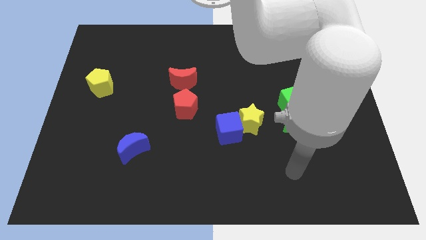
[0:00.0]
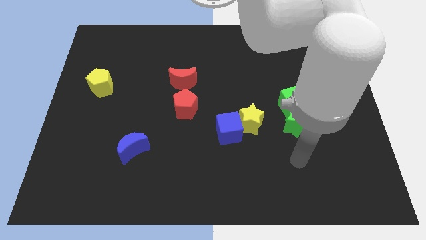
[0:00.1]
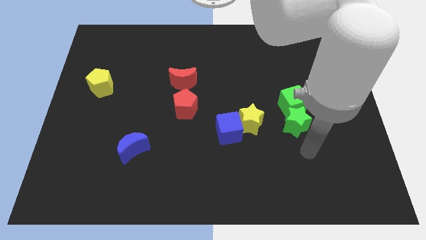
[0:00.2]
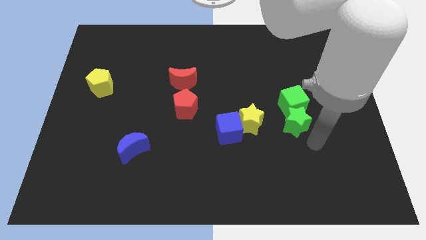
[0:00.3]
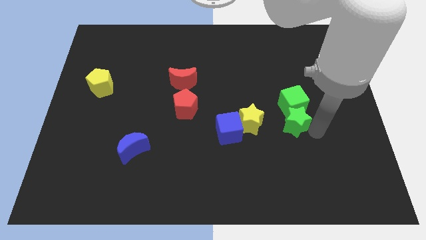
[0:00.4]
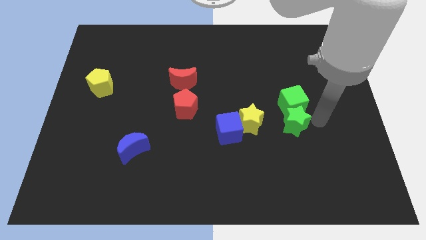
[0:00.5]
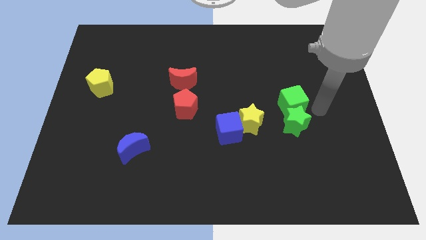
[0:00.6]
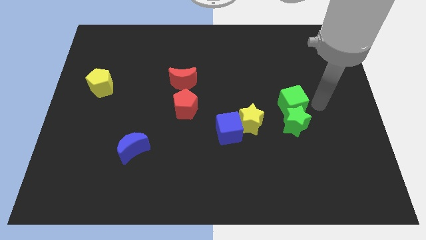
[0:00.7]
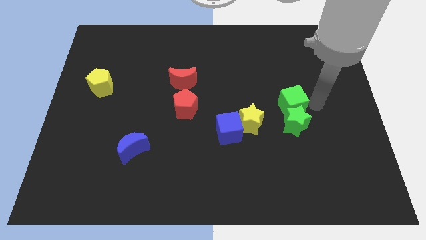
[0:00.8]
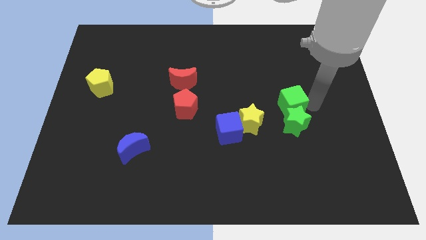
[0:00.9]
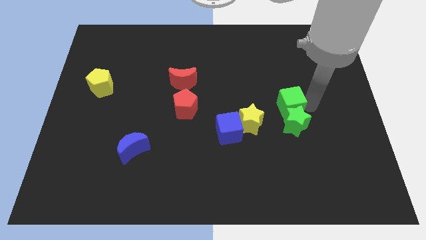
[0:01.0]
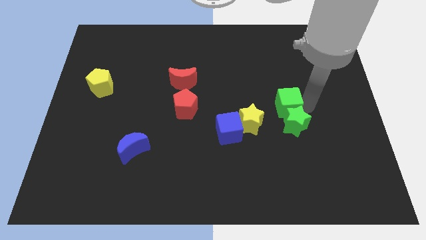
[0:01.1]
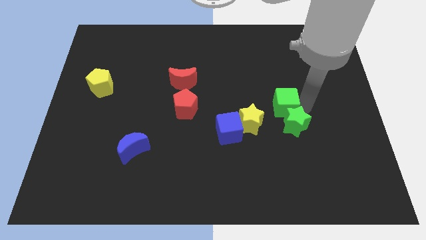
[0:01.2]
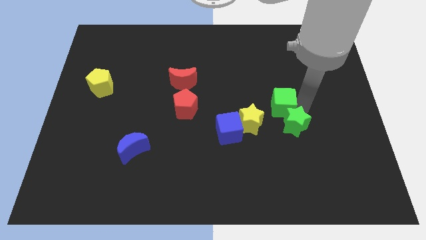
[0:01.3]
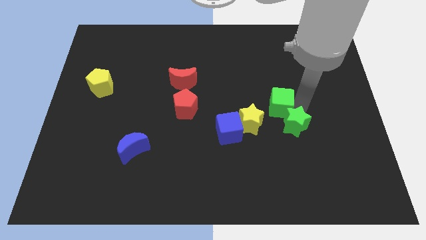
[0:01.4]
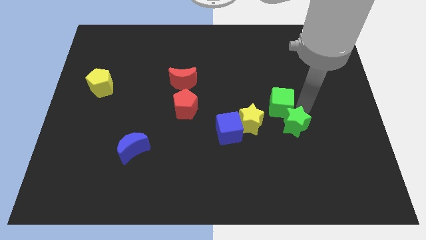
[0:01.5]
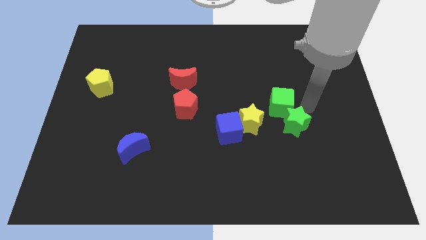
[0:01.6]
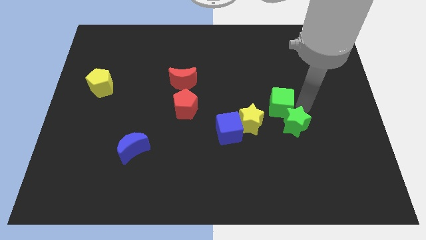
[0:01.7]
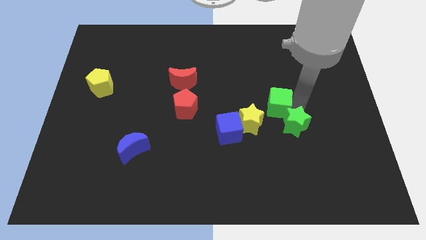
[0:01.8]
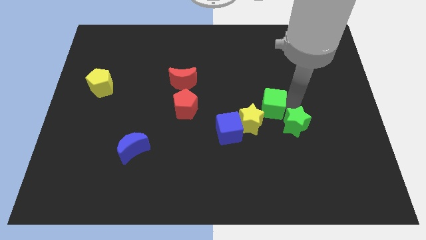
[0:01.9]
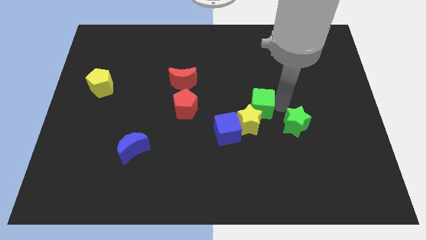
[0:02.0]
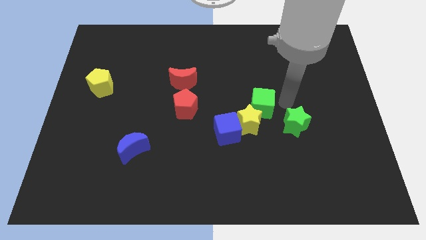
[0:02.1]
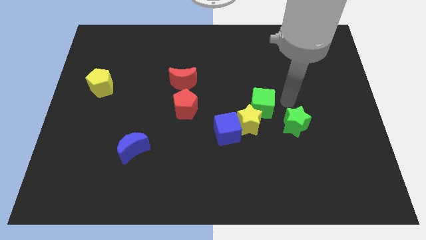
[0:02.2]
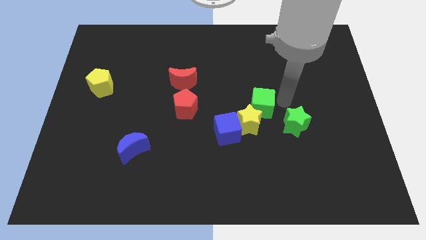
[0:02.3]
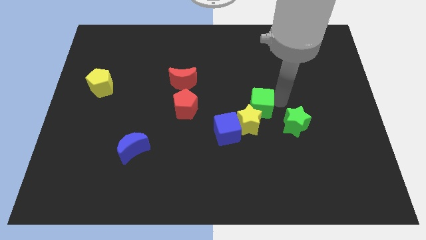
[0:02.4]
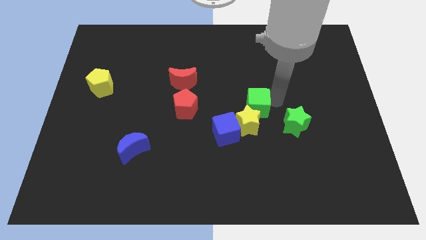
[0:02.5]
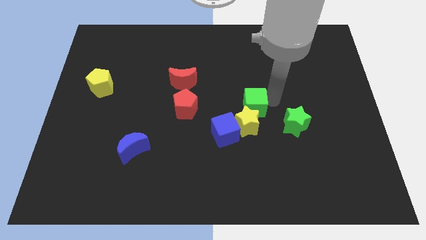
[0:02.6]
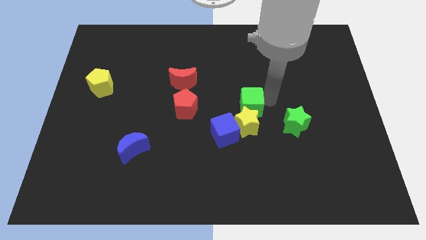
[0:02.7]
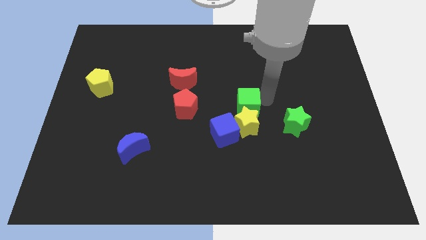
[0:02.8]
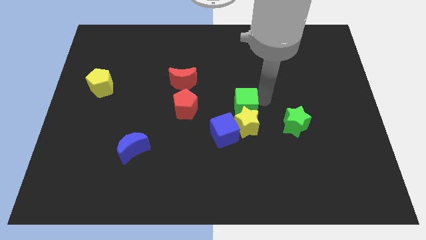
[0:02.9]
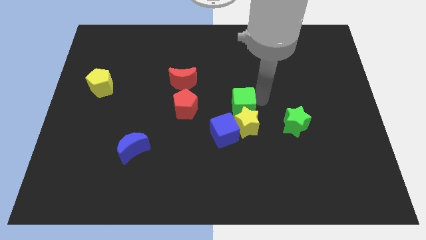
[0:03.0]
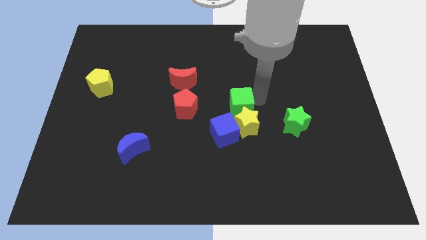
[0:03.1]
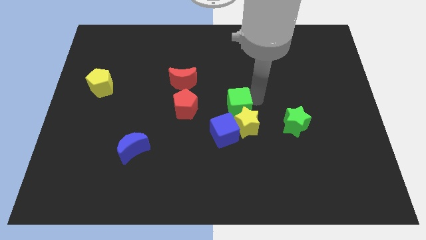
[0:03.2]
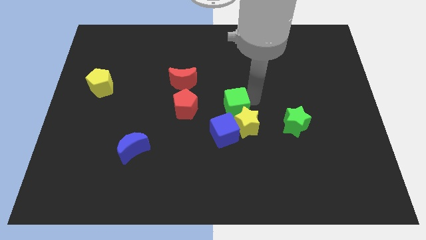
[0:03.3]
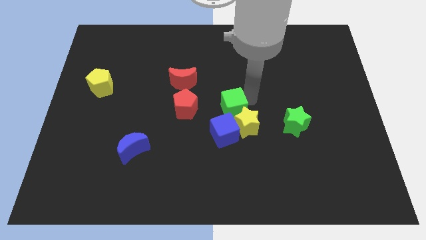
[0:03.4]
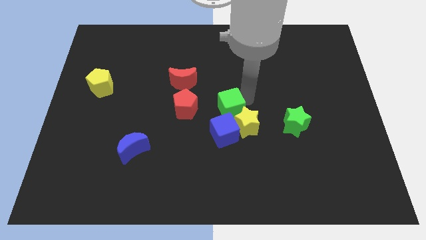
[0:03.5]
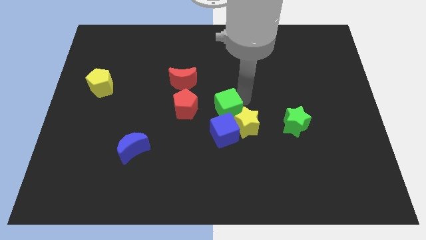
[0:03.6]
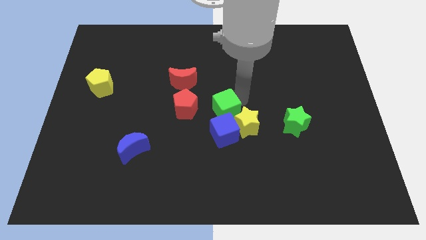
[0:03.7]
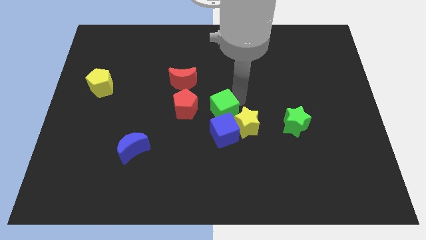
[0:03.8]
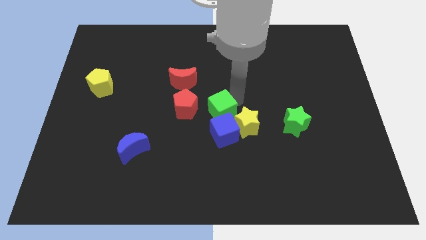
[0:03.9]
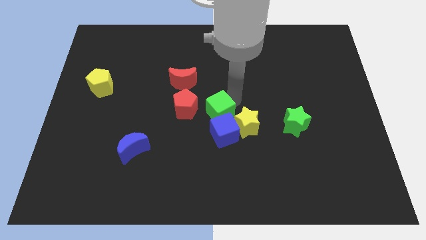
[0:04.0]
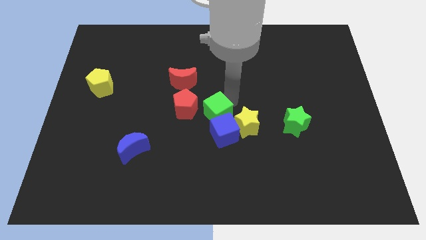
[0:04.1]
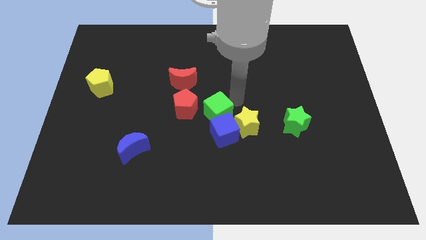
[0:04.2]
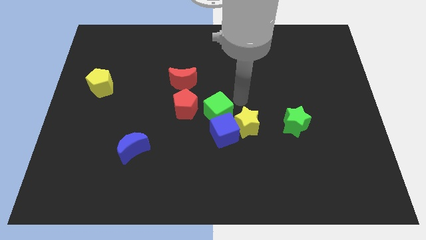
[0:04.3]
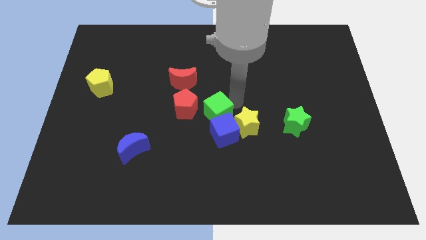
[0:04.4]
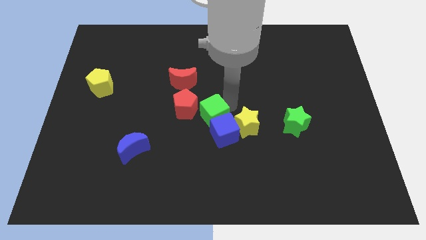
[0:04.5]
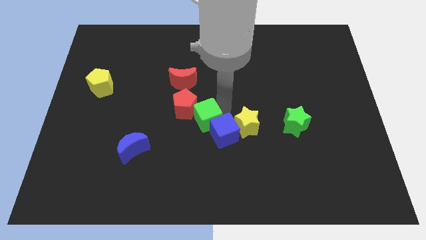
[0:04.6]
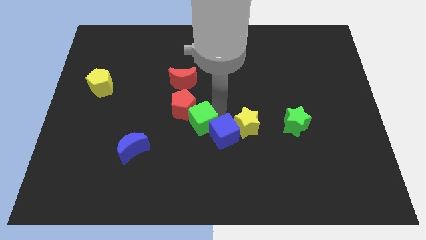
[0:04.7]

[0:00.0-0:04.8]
push the green cube to the left

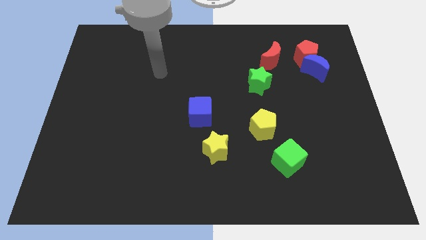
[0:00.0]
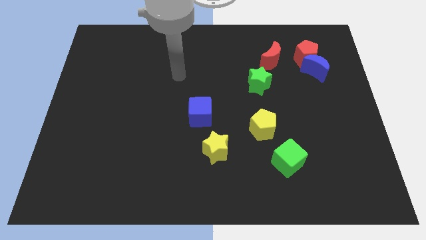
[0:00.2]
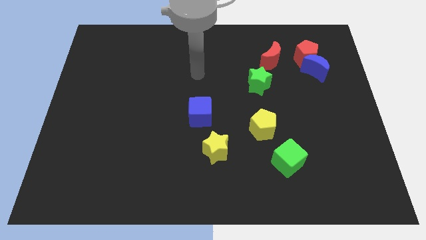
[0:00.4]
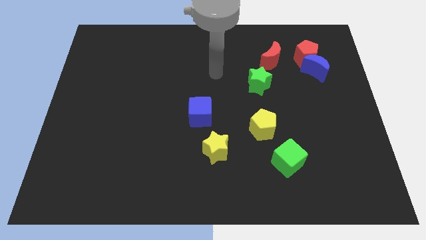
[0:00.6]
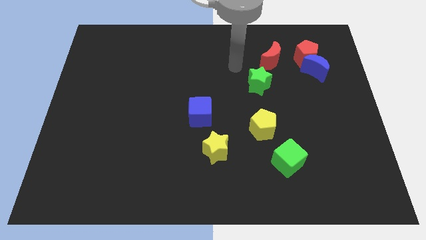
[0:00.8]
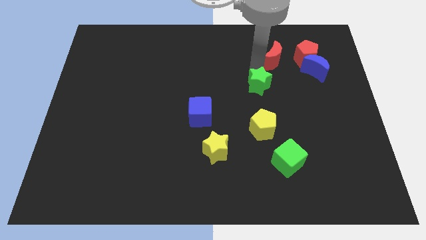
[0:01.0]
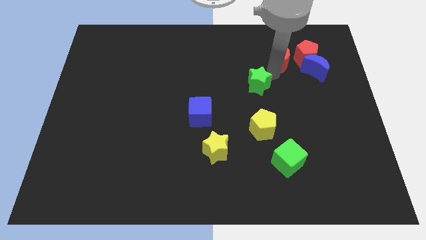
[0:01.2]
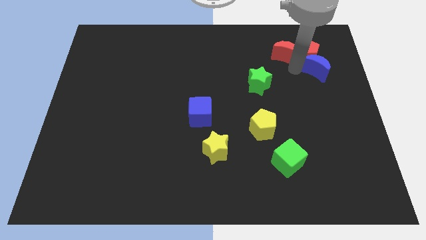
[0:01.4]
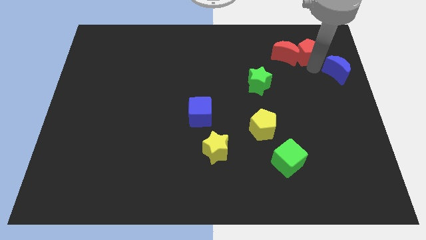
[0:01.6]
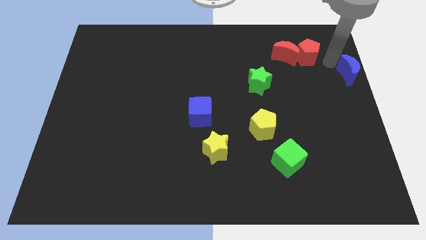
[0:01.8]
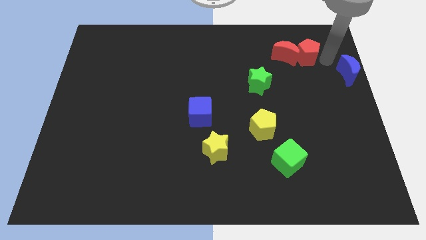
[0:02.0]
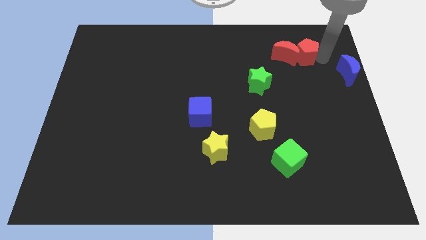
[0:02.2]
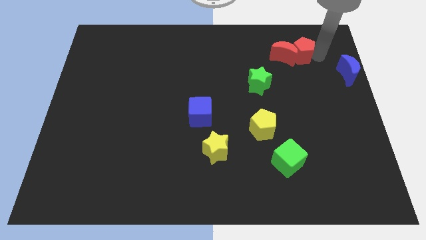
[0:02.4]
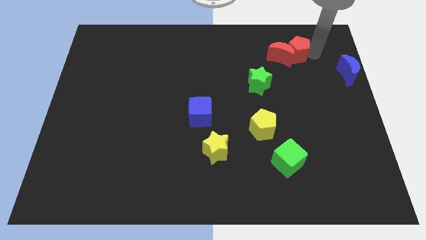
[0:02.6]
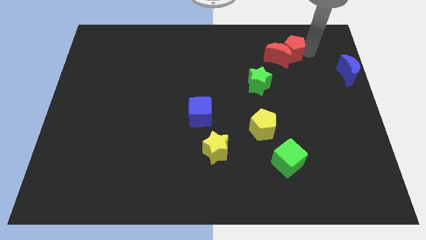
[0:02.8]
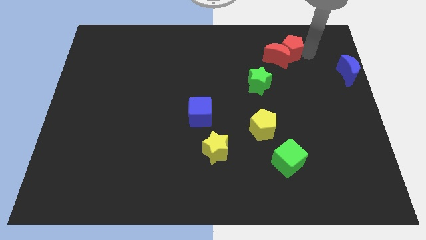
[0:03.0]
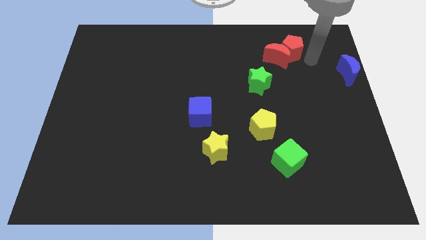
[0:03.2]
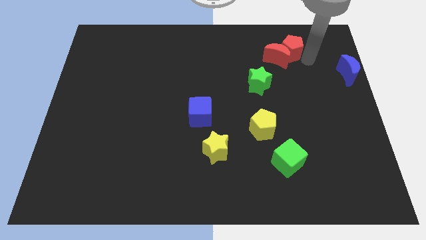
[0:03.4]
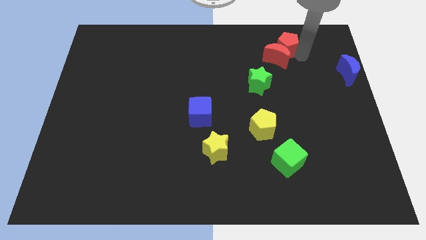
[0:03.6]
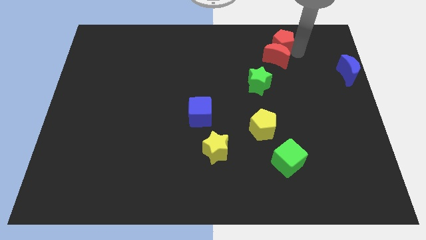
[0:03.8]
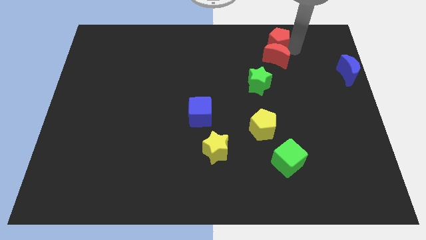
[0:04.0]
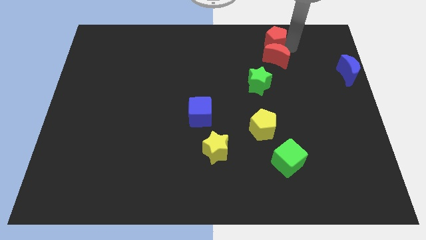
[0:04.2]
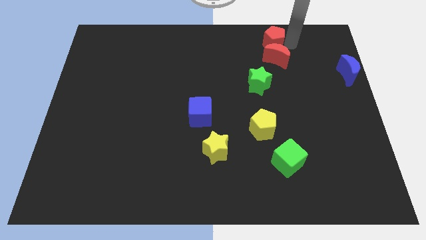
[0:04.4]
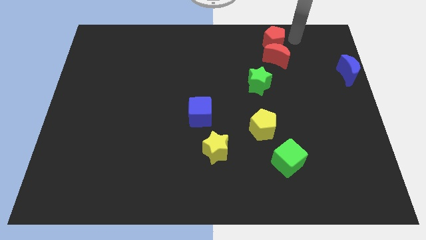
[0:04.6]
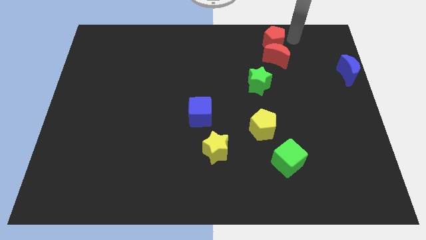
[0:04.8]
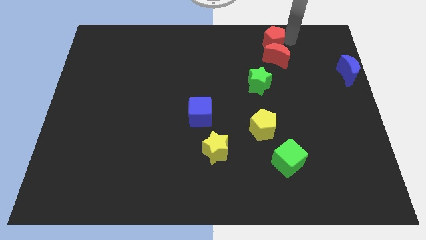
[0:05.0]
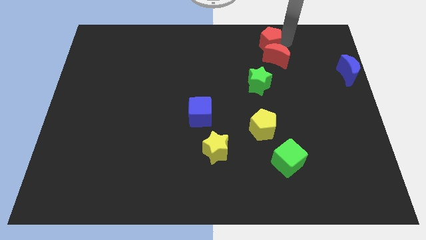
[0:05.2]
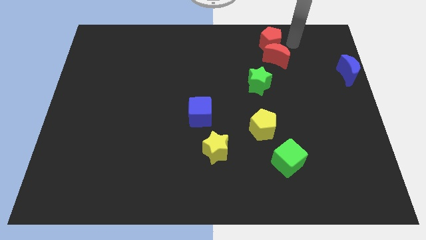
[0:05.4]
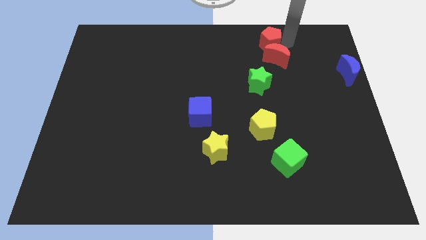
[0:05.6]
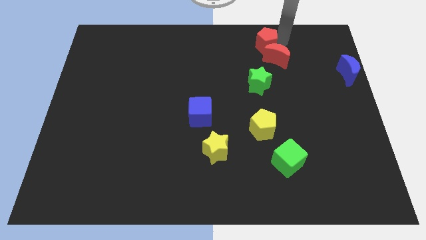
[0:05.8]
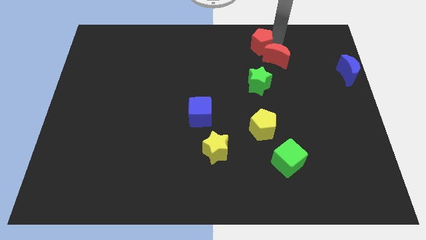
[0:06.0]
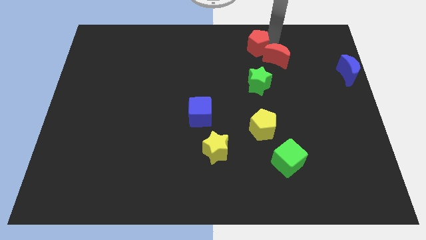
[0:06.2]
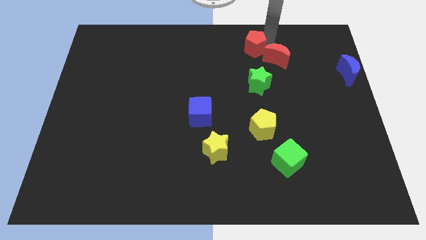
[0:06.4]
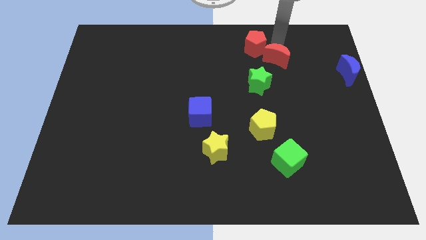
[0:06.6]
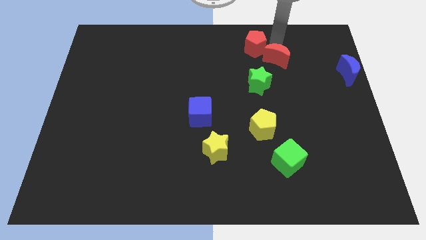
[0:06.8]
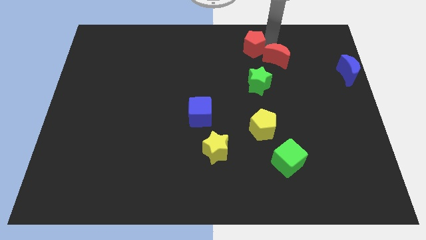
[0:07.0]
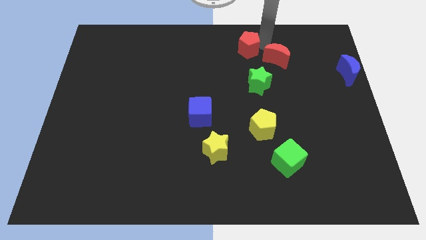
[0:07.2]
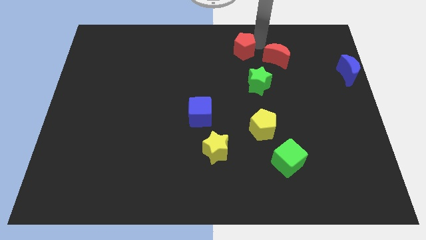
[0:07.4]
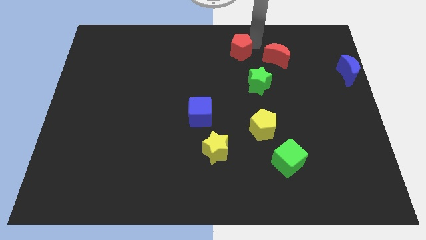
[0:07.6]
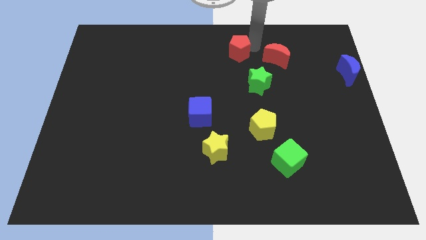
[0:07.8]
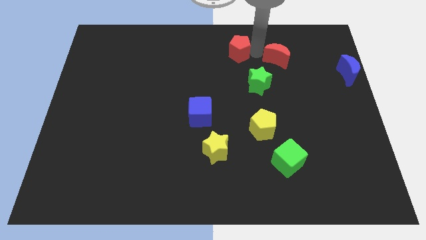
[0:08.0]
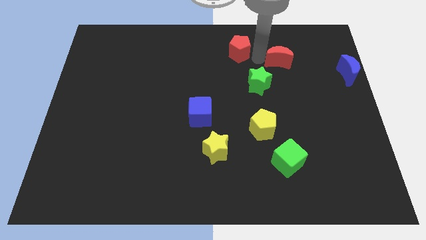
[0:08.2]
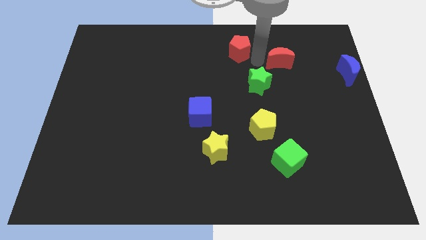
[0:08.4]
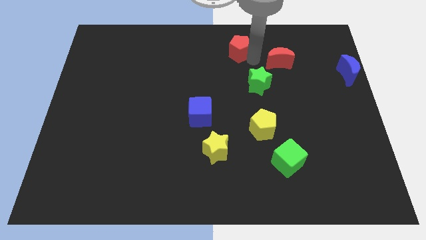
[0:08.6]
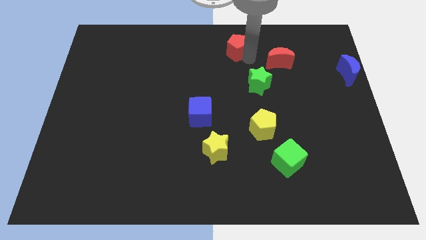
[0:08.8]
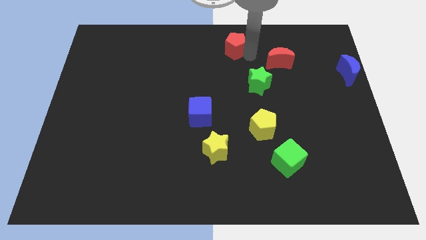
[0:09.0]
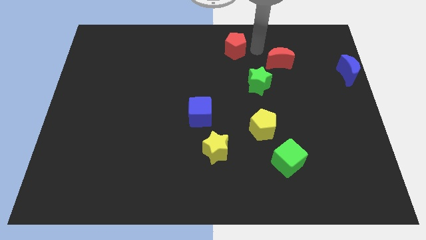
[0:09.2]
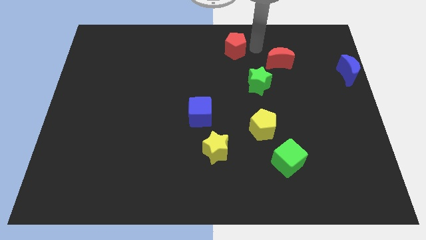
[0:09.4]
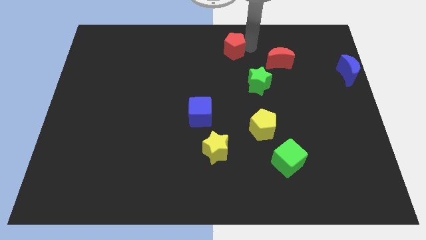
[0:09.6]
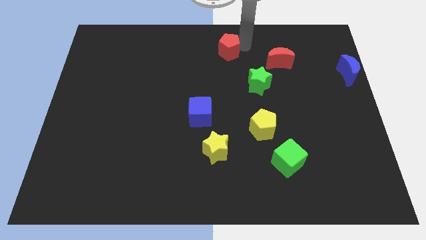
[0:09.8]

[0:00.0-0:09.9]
push the red pentagon to the left
